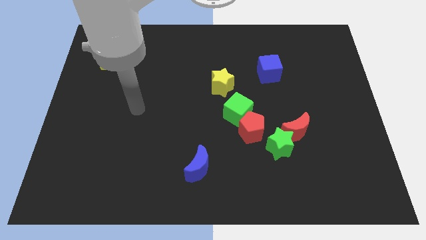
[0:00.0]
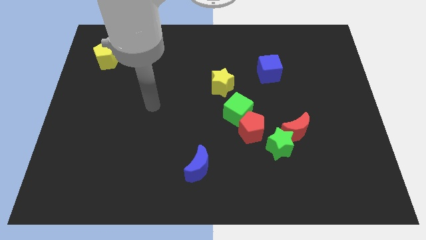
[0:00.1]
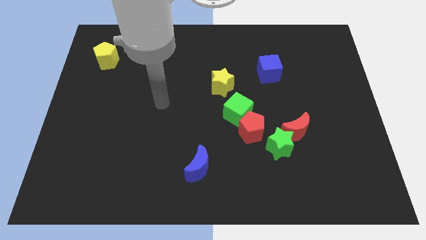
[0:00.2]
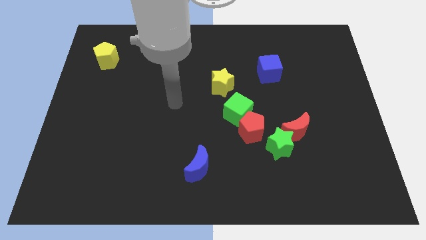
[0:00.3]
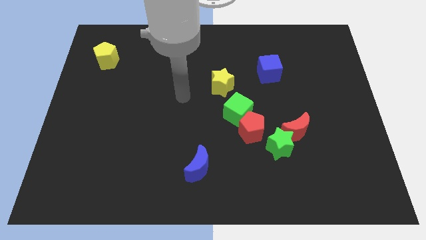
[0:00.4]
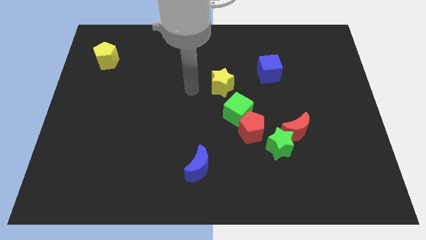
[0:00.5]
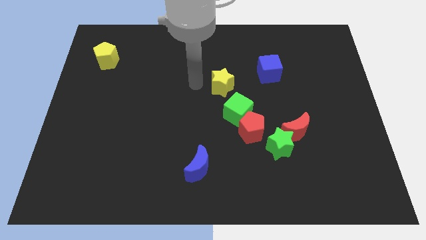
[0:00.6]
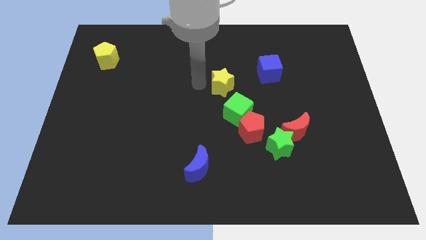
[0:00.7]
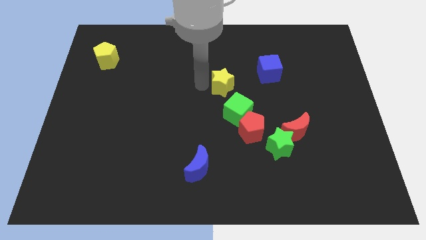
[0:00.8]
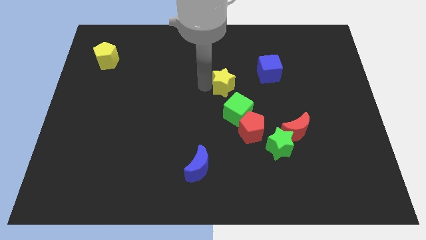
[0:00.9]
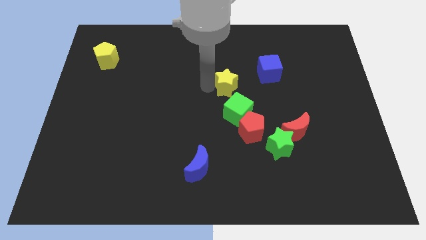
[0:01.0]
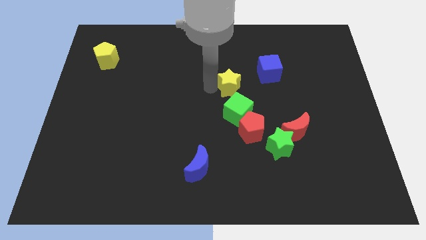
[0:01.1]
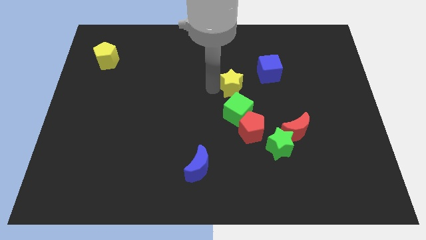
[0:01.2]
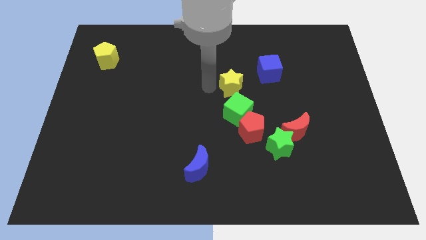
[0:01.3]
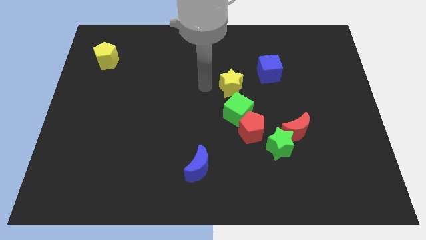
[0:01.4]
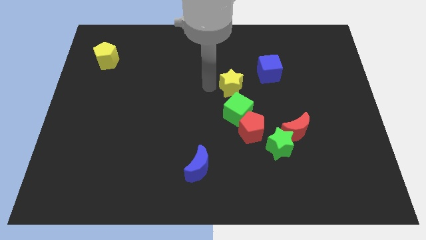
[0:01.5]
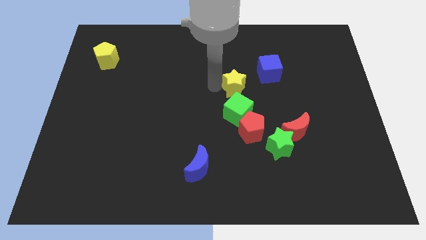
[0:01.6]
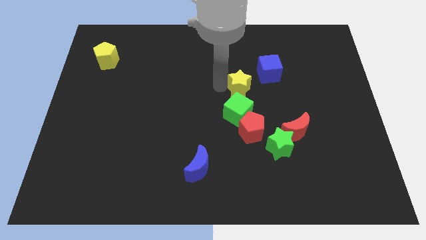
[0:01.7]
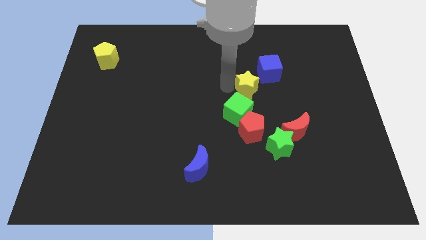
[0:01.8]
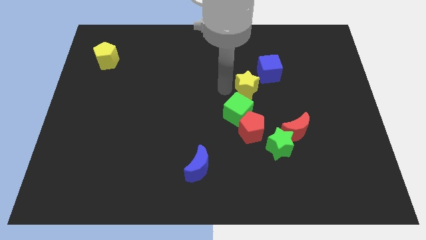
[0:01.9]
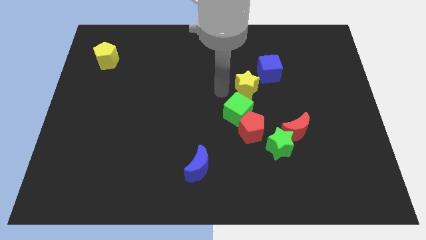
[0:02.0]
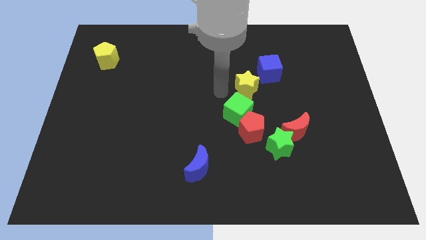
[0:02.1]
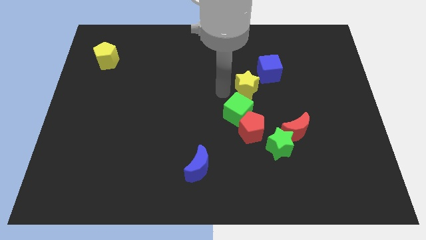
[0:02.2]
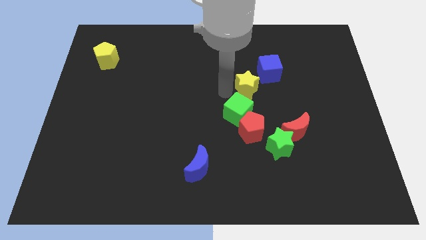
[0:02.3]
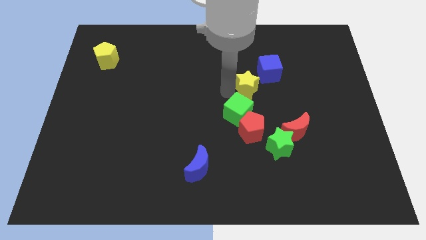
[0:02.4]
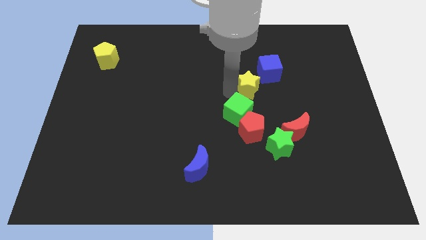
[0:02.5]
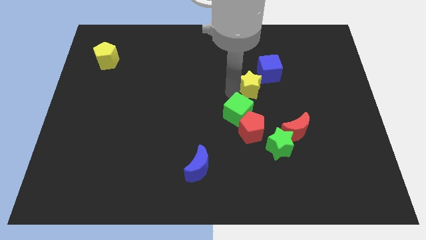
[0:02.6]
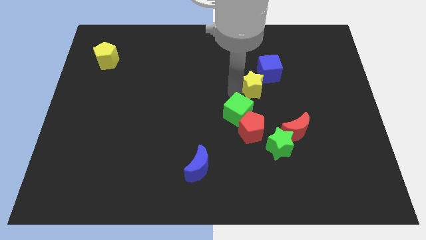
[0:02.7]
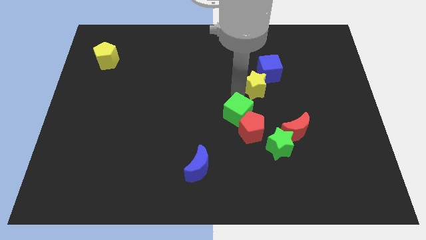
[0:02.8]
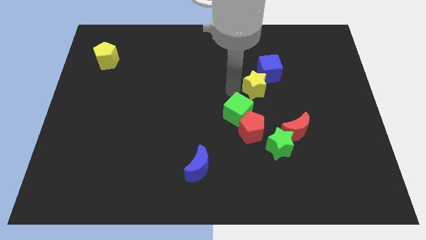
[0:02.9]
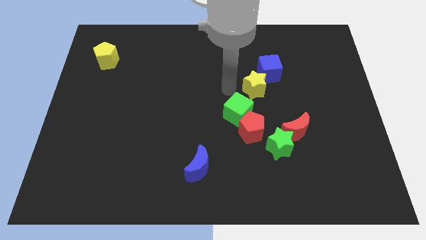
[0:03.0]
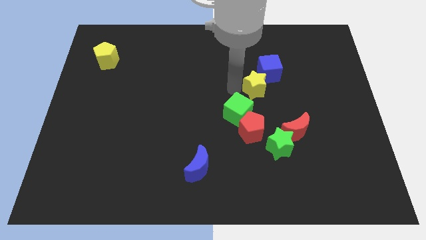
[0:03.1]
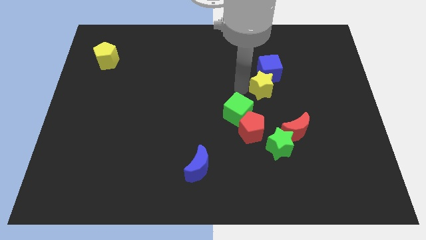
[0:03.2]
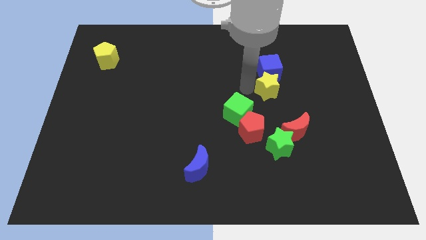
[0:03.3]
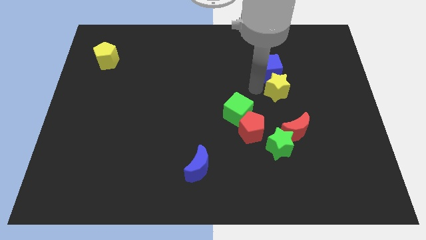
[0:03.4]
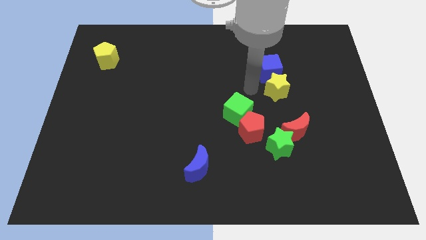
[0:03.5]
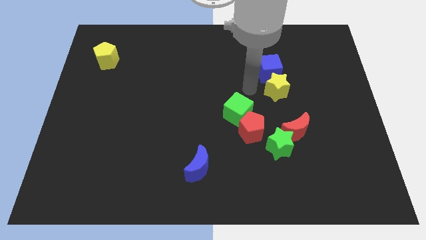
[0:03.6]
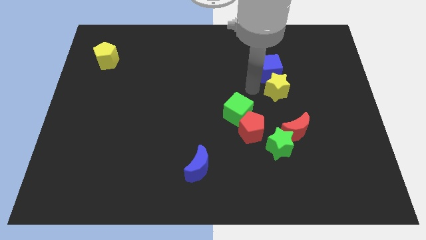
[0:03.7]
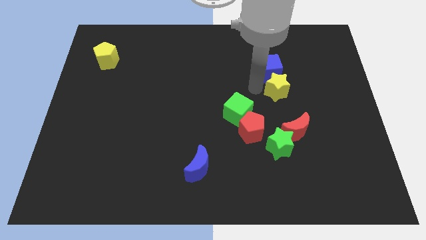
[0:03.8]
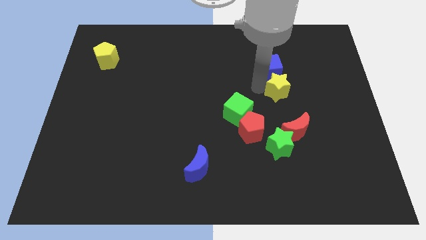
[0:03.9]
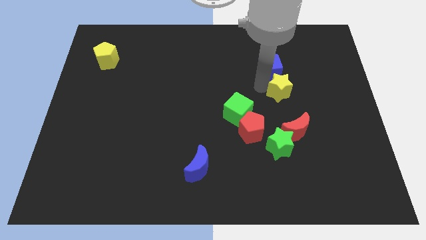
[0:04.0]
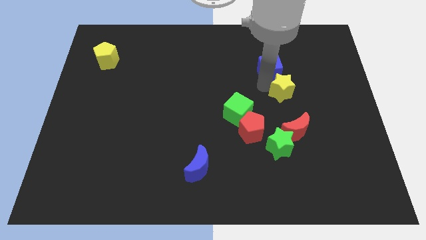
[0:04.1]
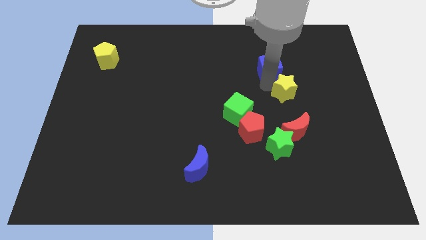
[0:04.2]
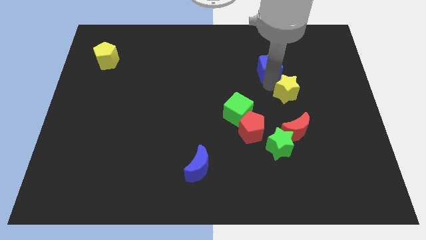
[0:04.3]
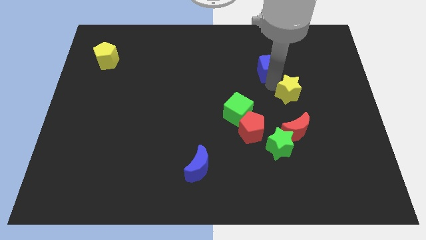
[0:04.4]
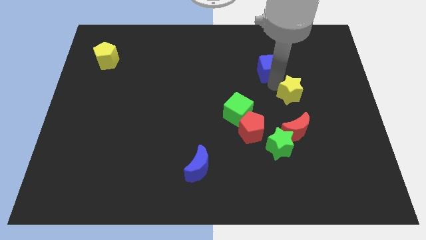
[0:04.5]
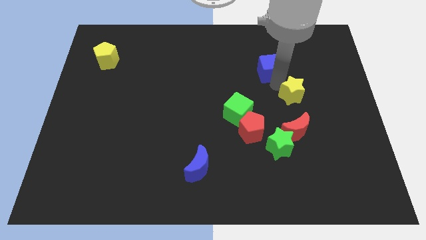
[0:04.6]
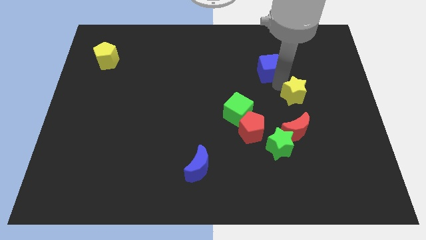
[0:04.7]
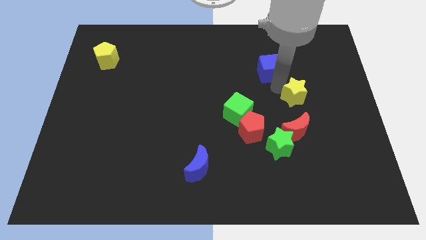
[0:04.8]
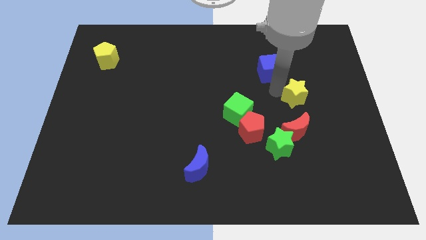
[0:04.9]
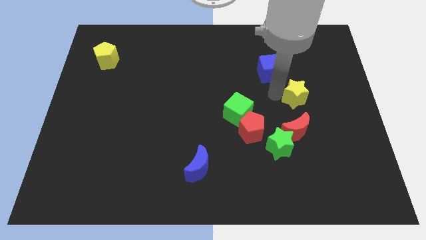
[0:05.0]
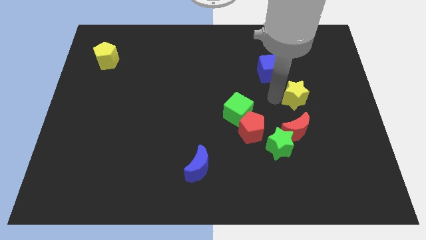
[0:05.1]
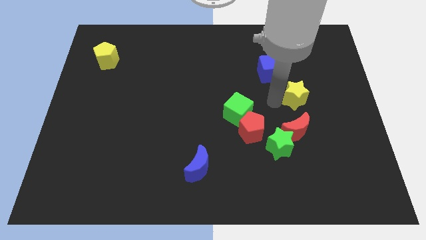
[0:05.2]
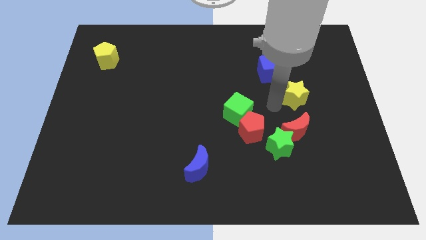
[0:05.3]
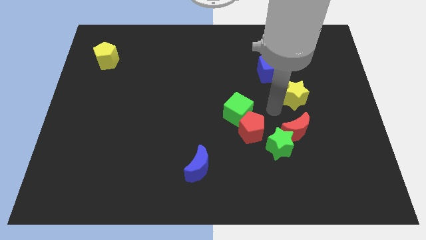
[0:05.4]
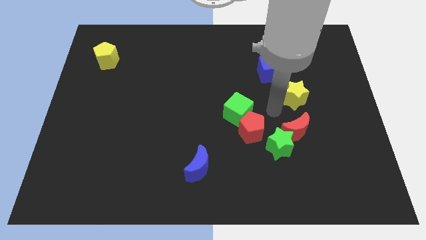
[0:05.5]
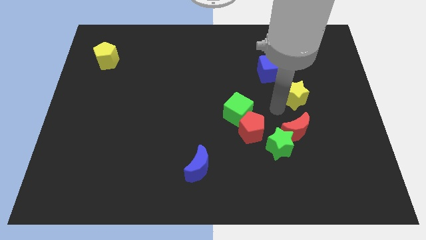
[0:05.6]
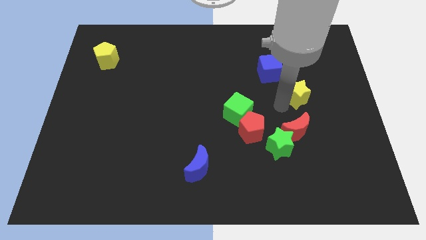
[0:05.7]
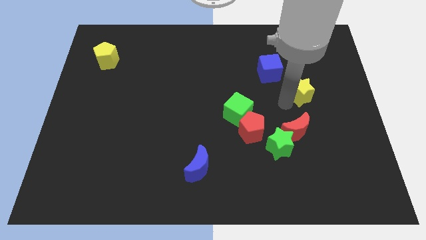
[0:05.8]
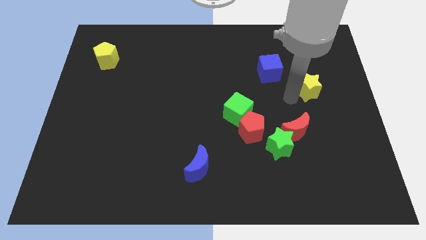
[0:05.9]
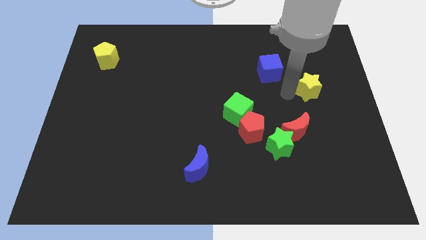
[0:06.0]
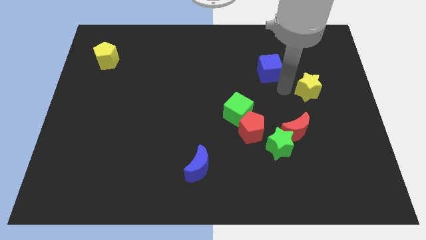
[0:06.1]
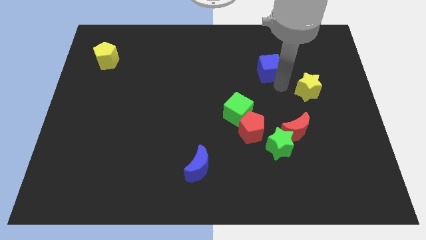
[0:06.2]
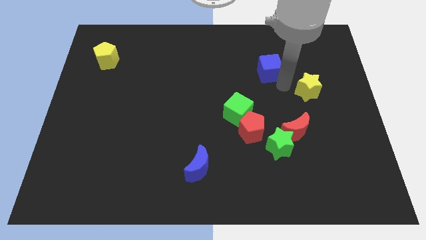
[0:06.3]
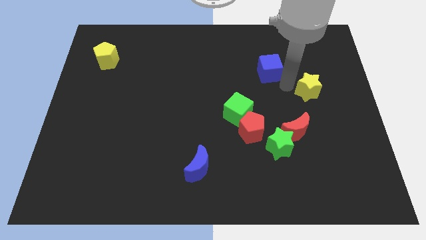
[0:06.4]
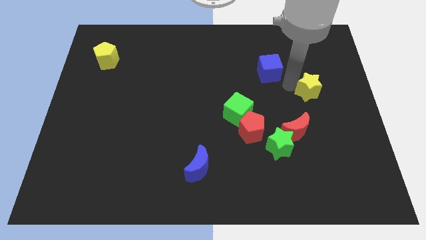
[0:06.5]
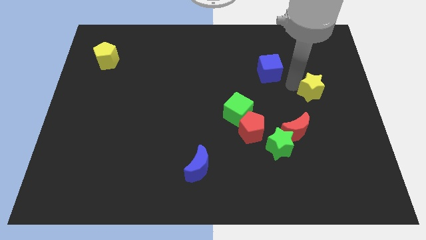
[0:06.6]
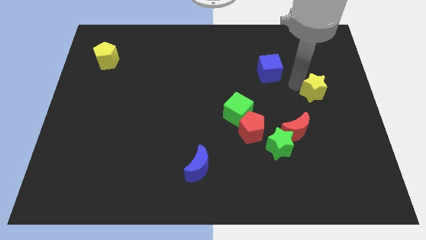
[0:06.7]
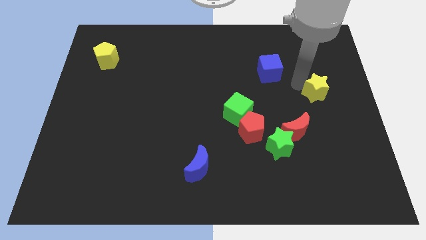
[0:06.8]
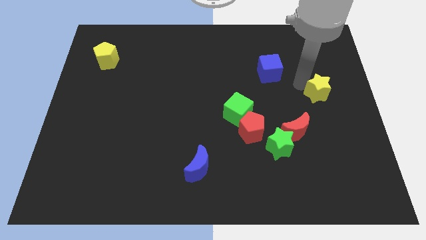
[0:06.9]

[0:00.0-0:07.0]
move the yellow star to the center right
